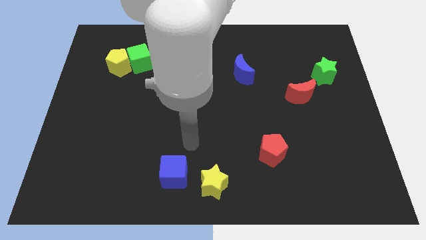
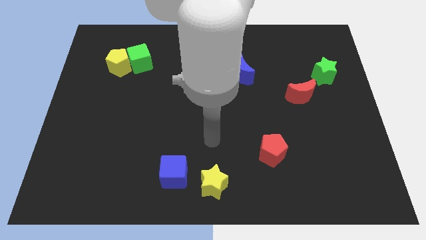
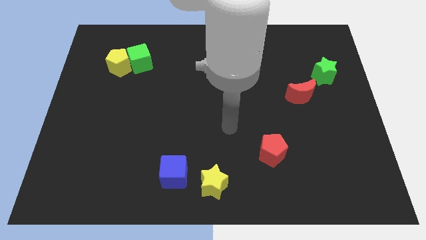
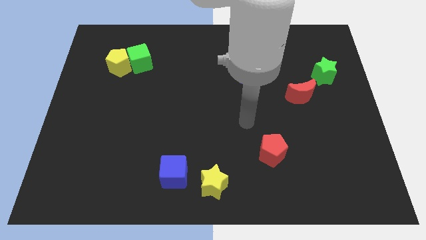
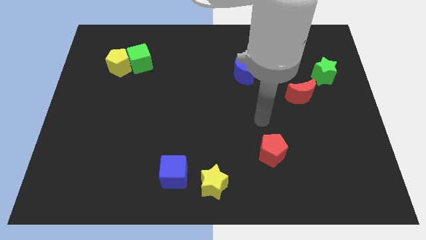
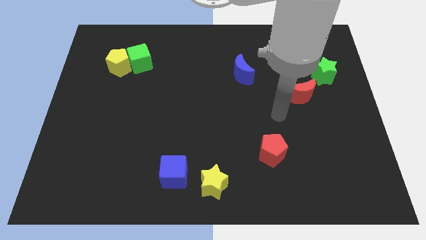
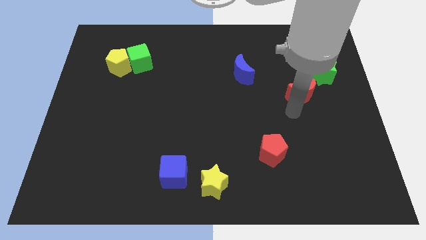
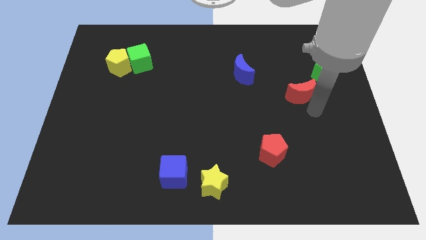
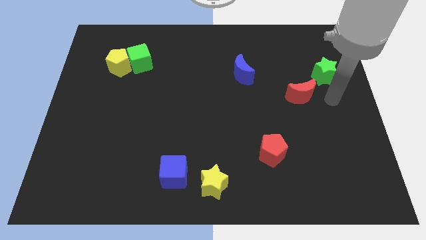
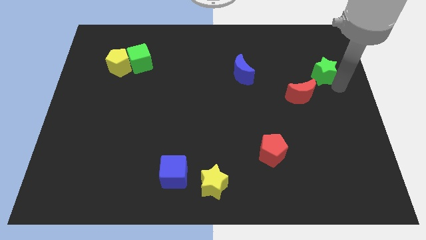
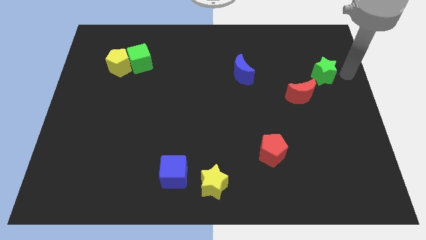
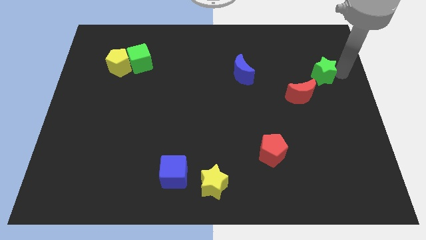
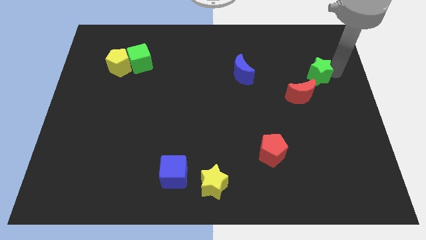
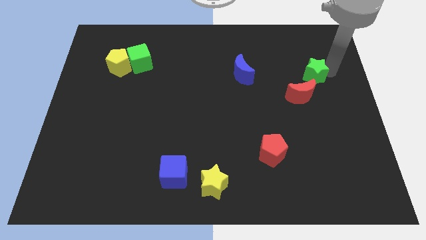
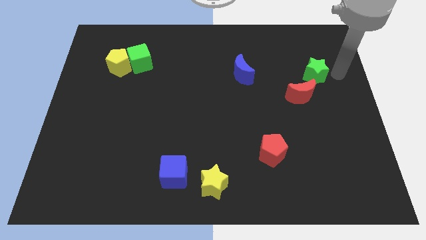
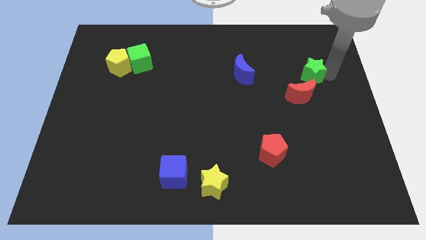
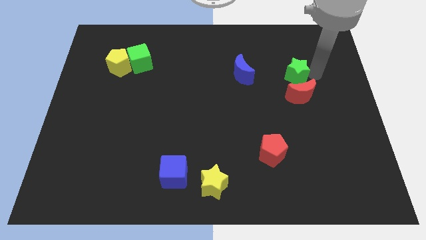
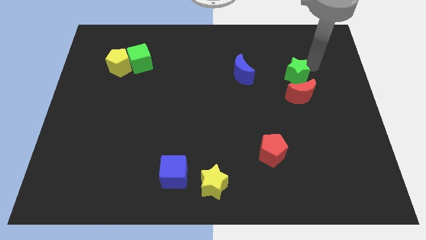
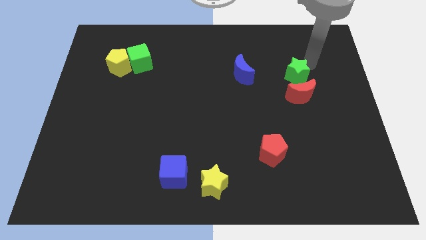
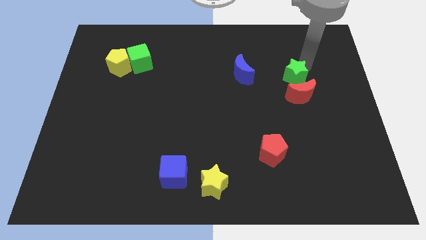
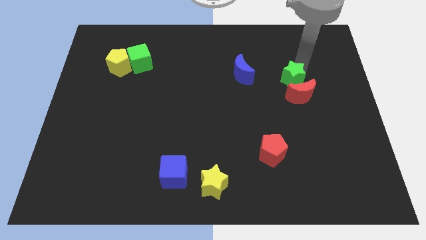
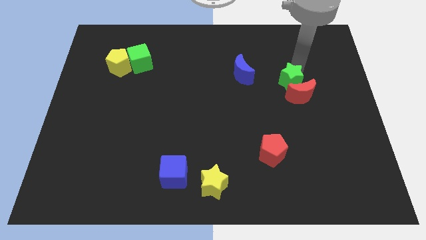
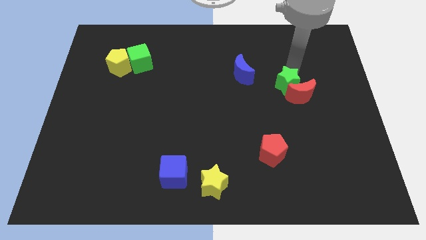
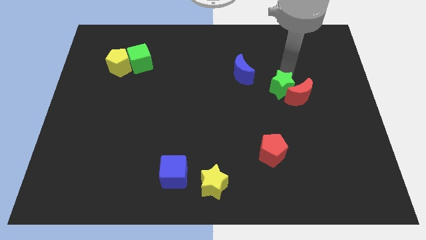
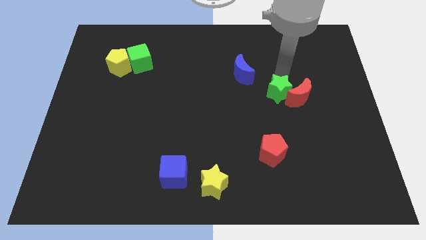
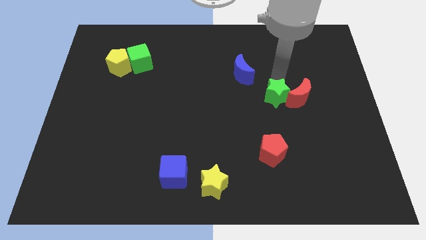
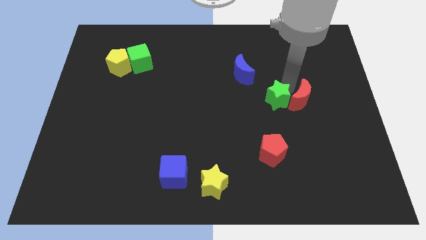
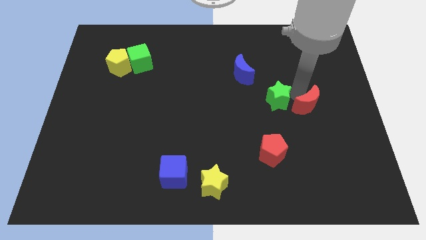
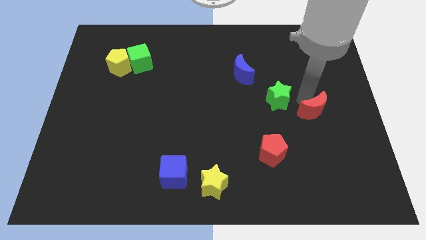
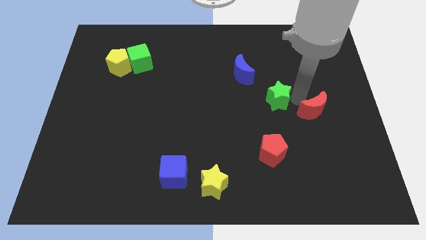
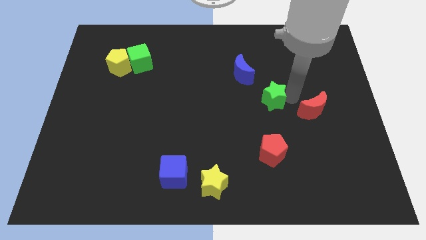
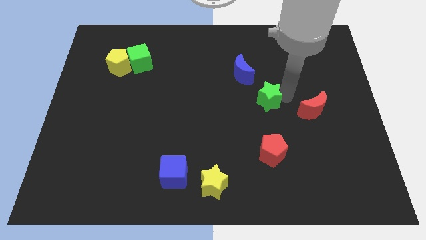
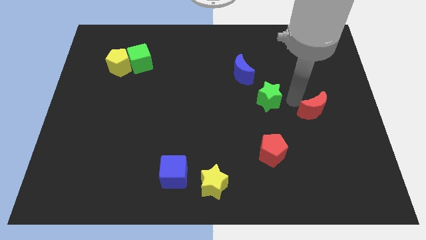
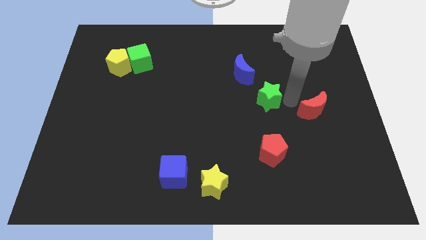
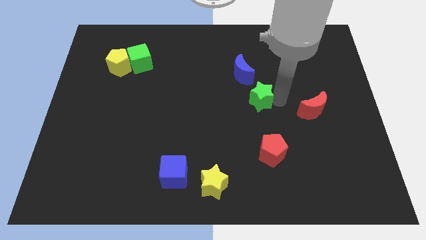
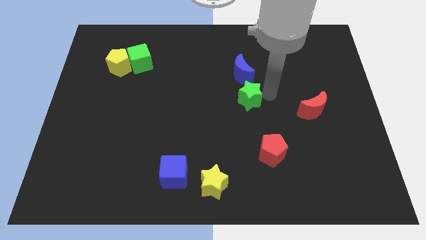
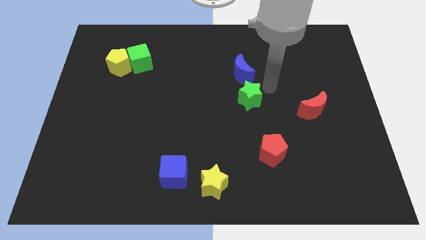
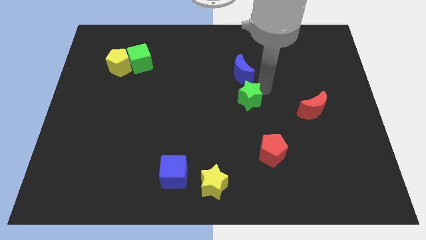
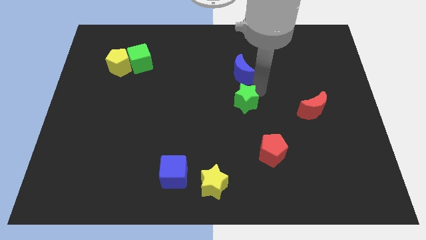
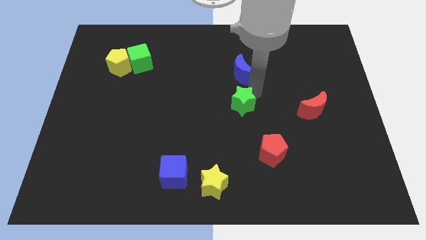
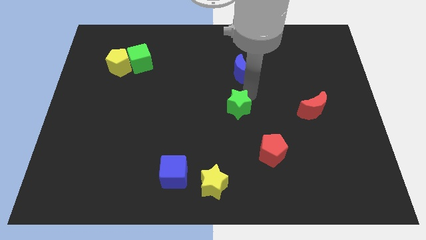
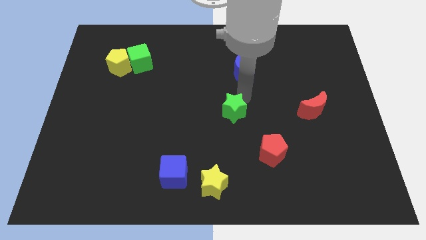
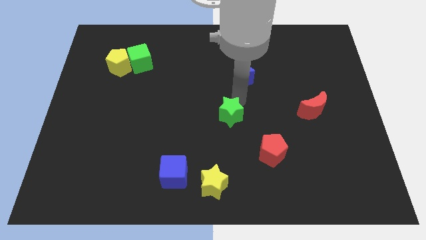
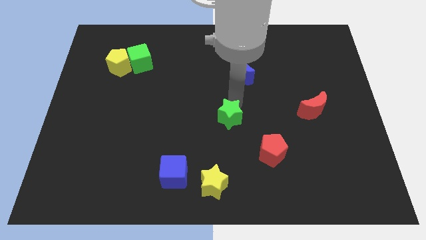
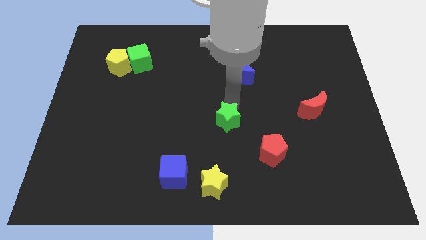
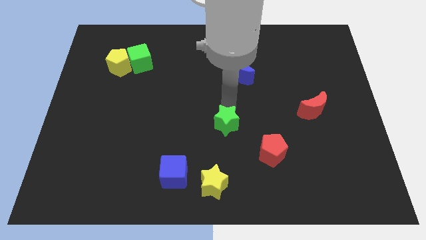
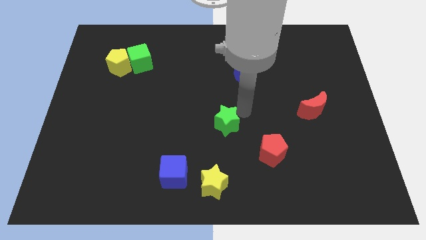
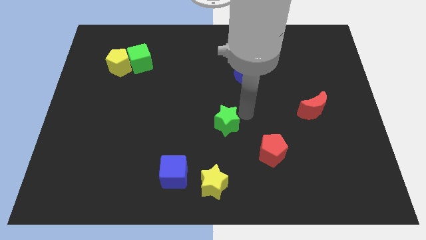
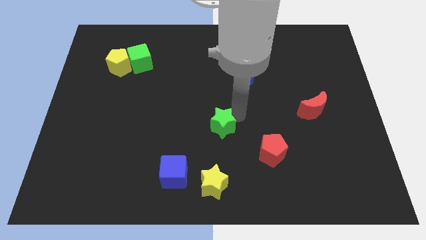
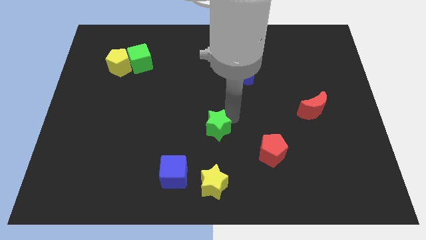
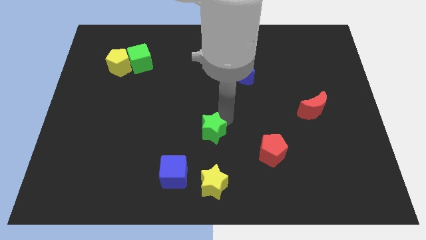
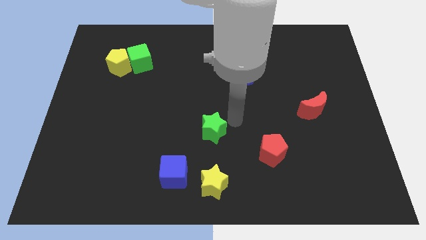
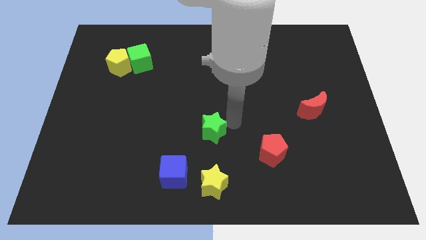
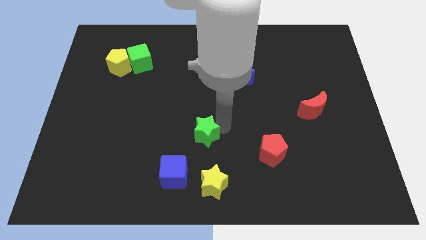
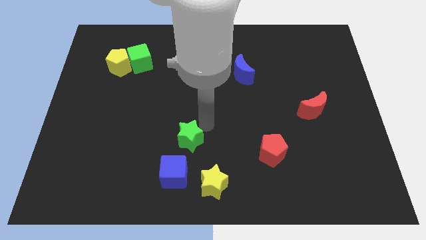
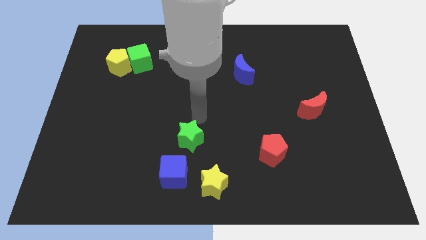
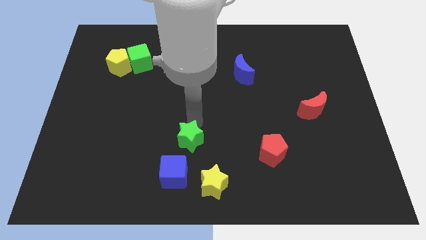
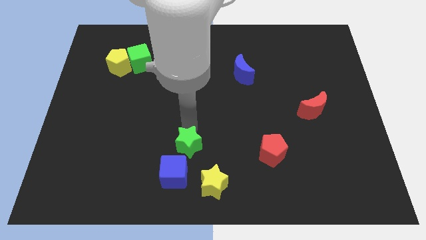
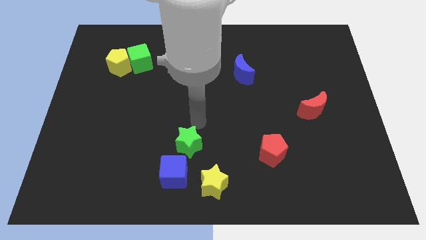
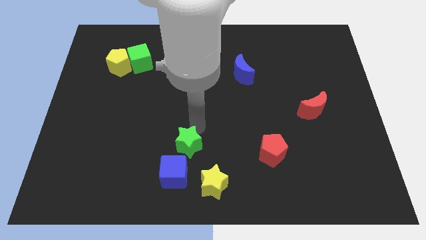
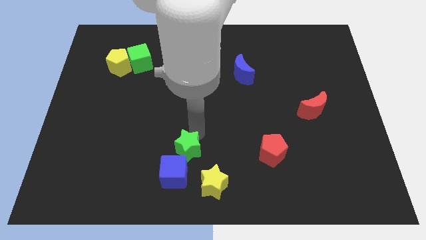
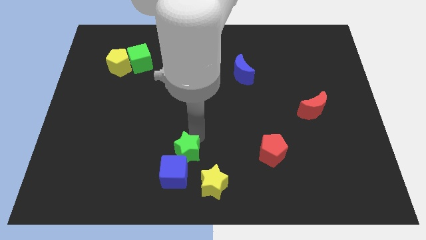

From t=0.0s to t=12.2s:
put the green star next to the blue cube

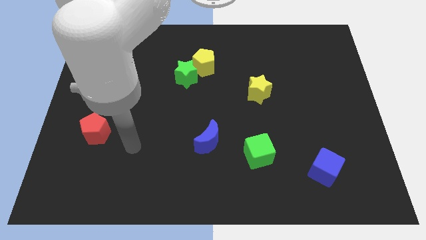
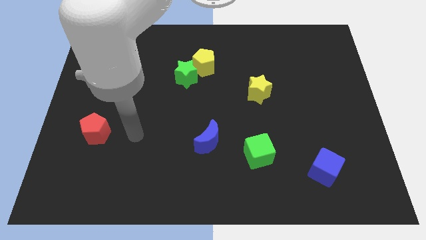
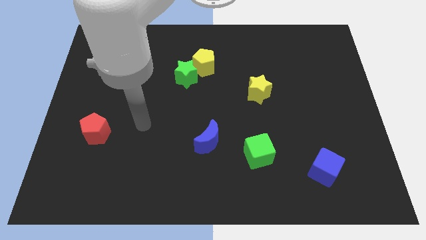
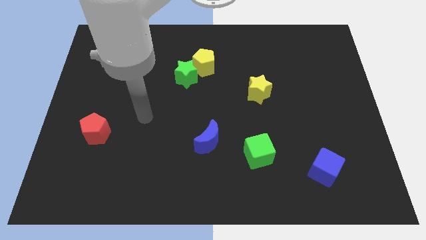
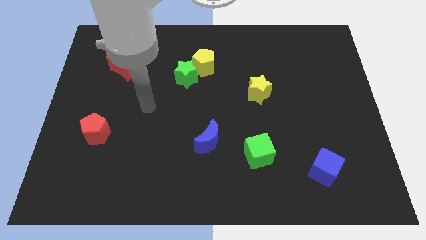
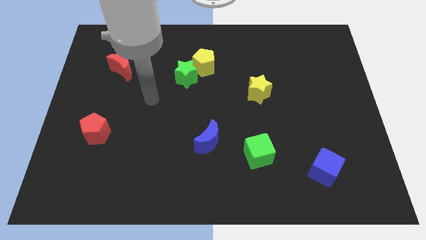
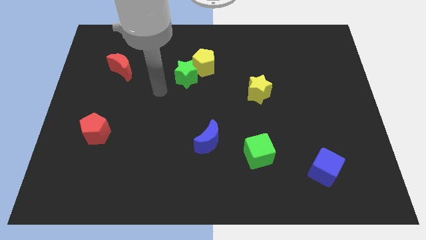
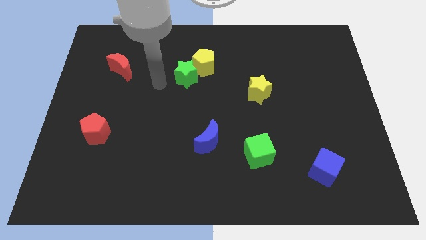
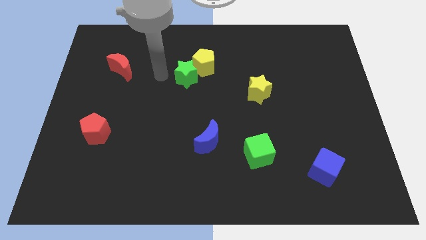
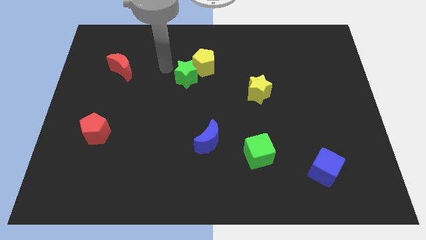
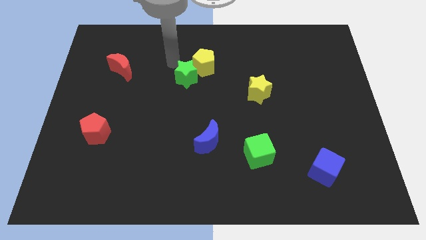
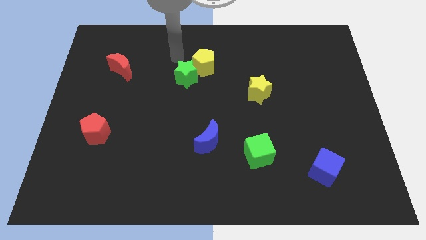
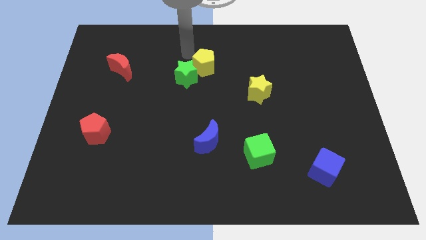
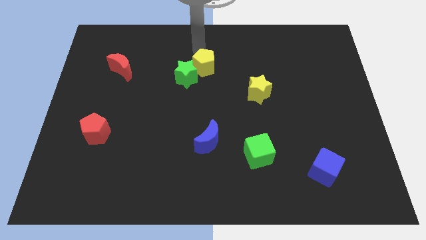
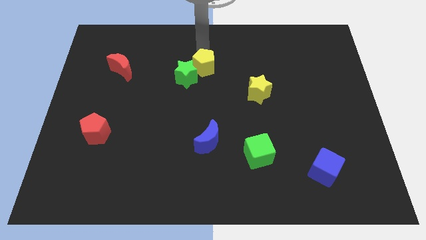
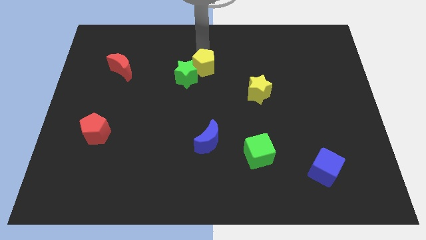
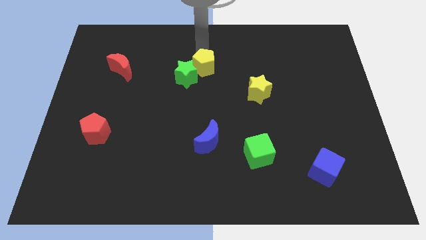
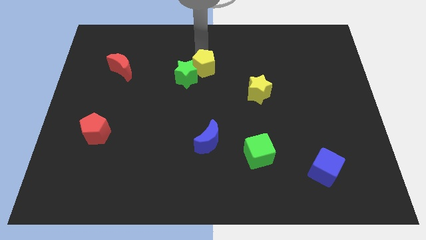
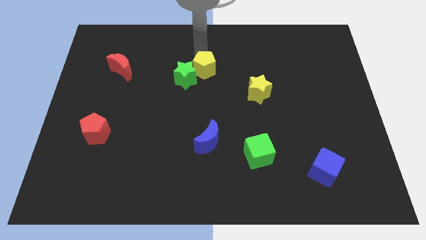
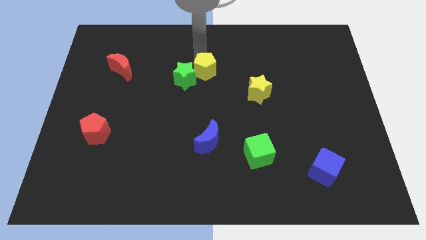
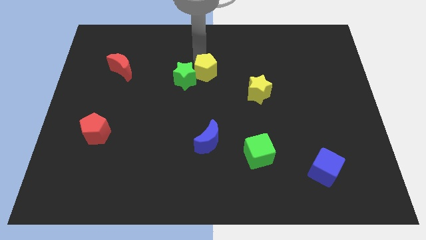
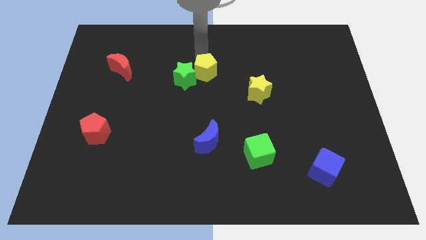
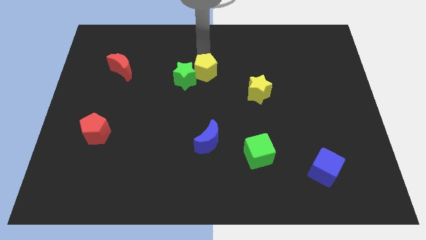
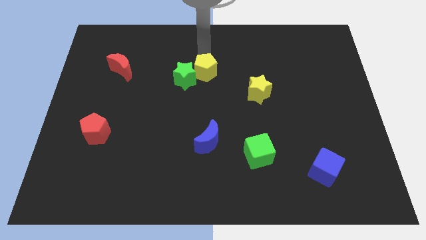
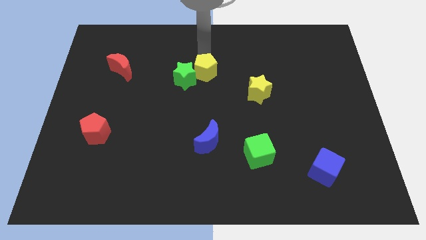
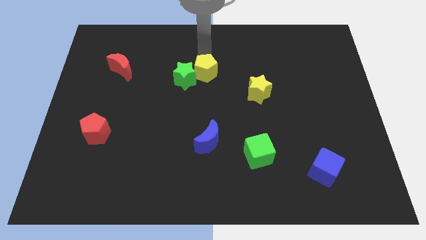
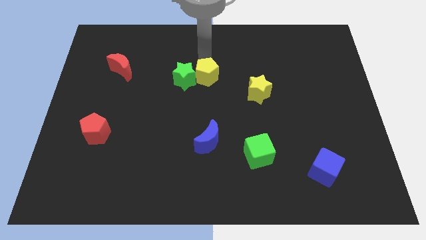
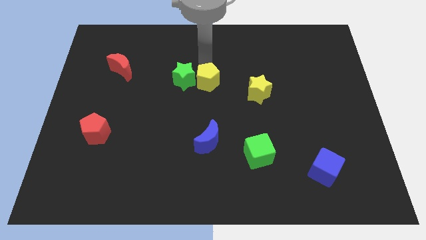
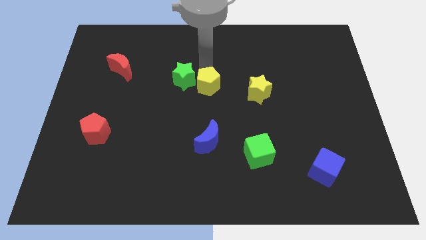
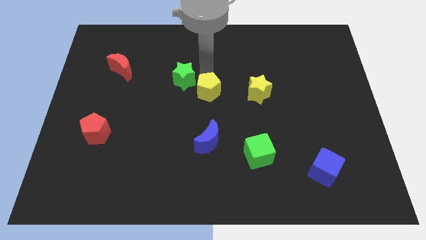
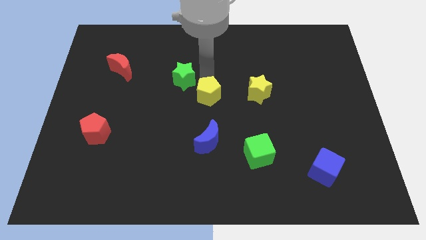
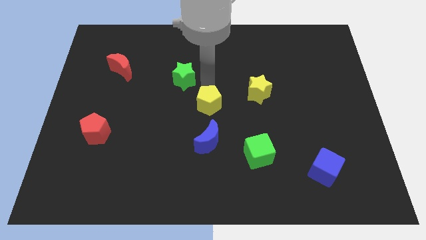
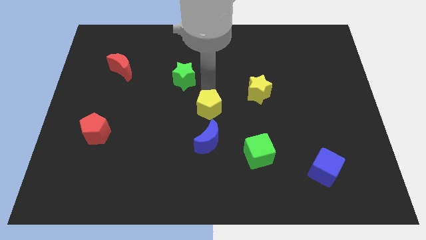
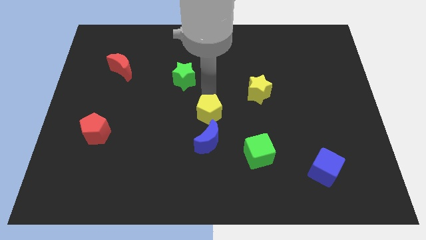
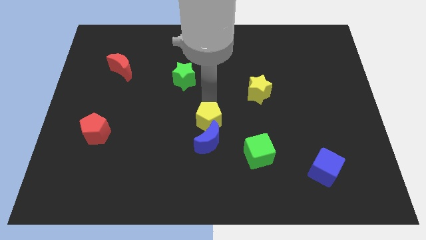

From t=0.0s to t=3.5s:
put the yellow pentagon close to the blue moon
